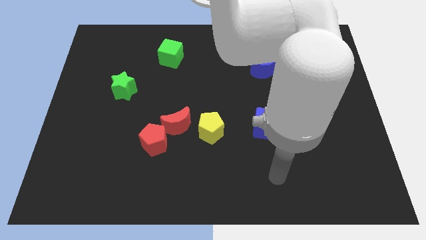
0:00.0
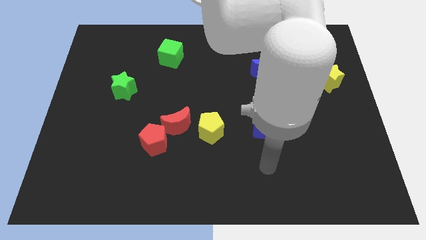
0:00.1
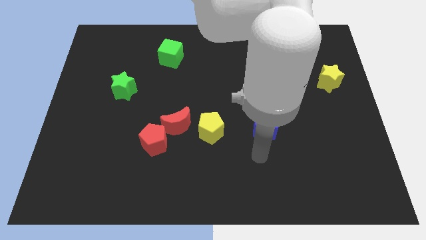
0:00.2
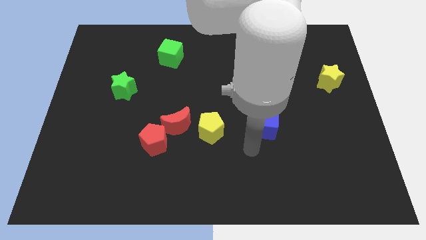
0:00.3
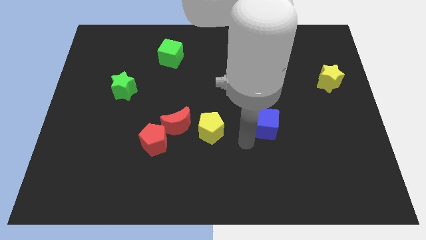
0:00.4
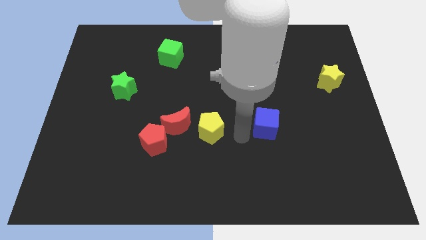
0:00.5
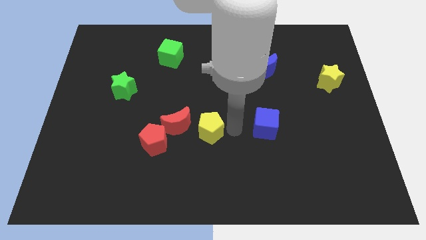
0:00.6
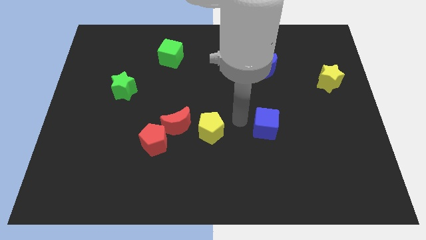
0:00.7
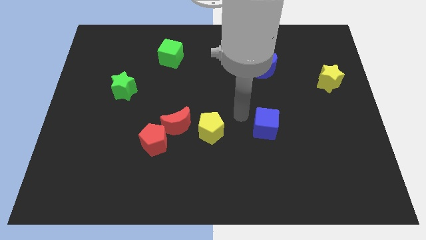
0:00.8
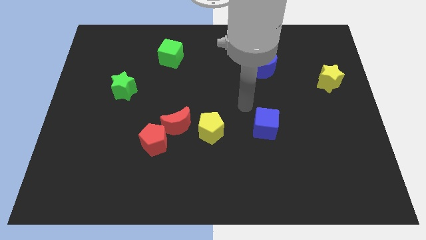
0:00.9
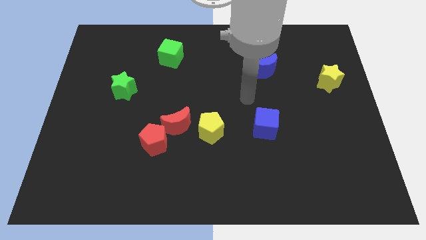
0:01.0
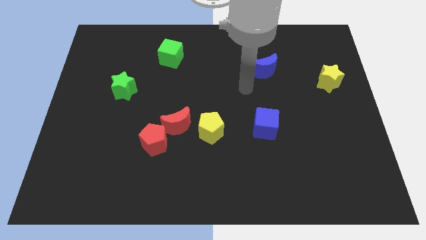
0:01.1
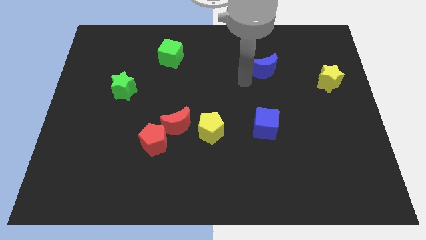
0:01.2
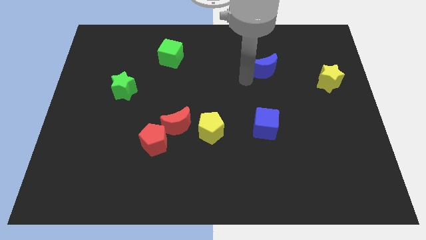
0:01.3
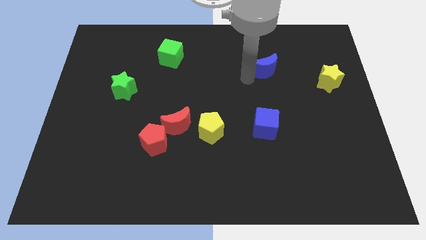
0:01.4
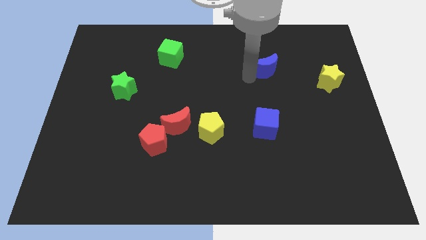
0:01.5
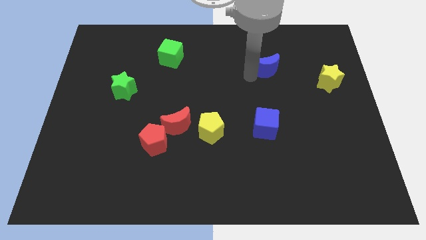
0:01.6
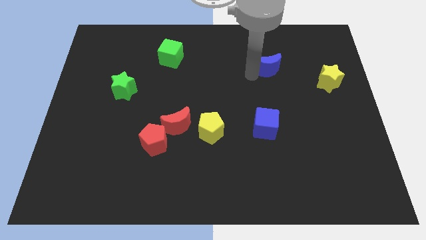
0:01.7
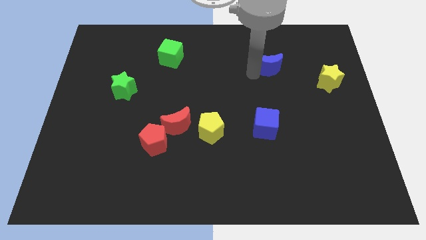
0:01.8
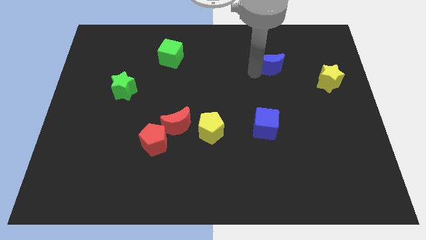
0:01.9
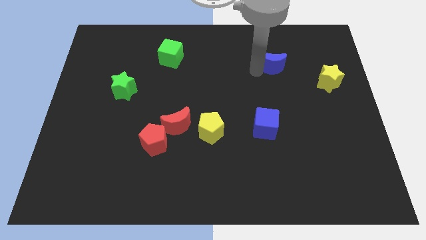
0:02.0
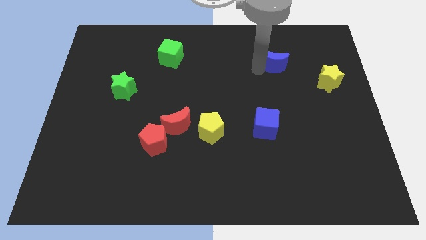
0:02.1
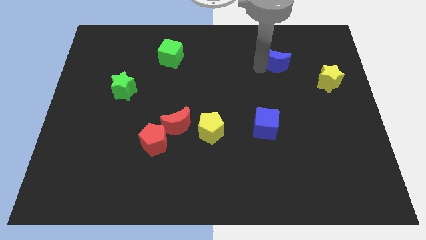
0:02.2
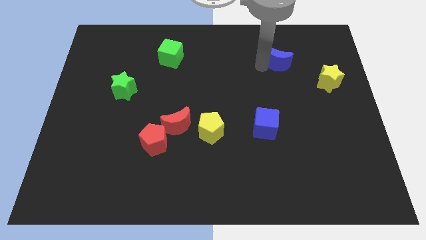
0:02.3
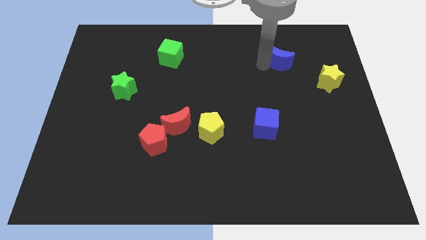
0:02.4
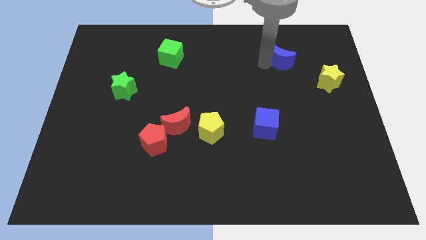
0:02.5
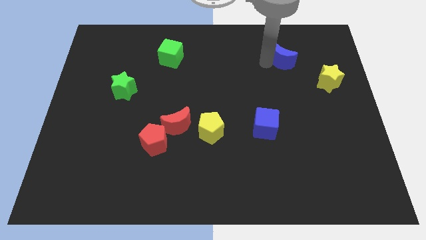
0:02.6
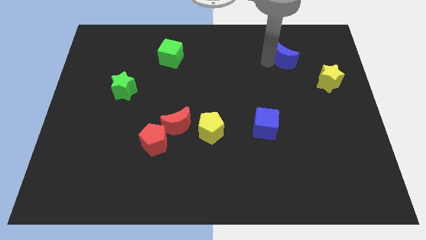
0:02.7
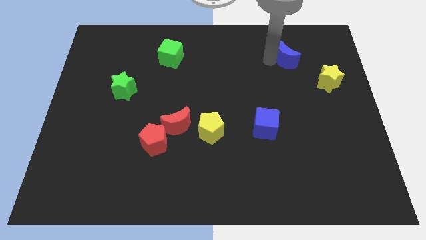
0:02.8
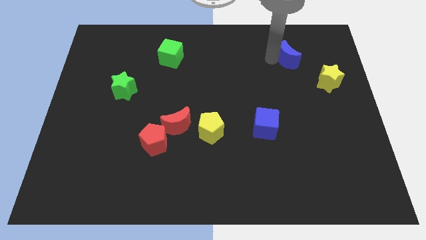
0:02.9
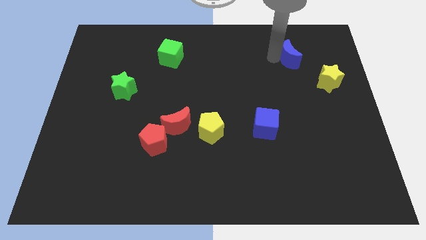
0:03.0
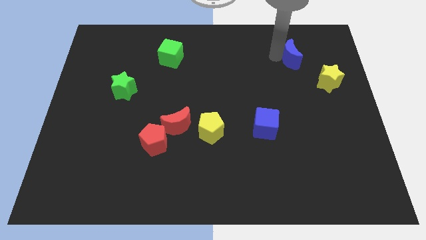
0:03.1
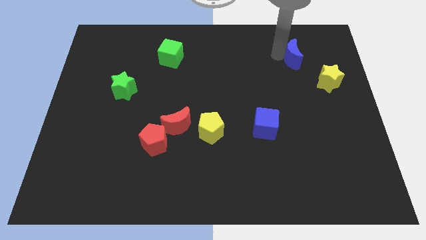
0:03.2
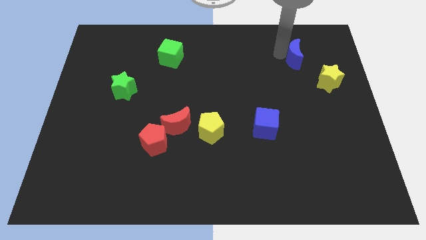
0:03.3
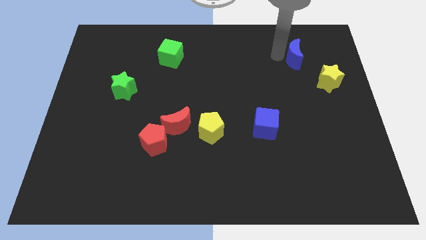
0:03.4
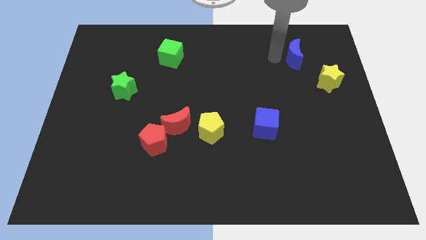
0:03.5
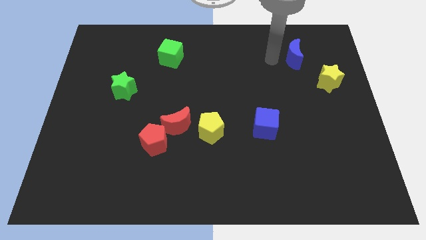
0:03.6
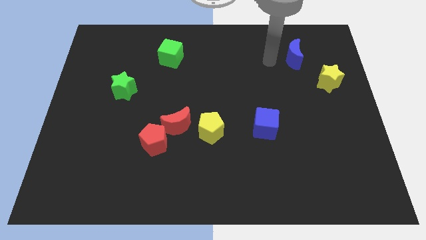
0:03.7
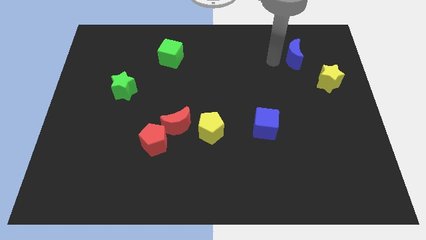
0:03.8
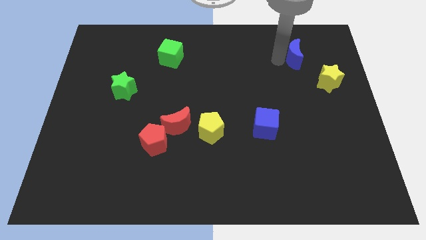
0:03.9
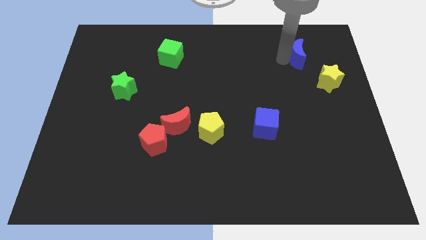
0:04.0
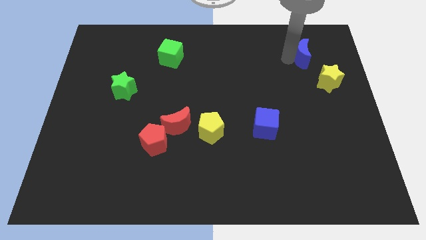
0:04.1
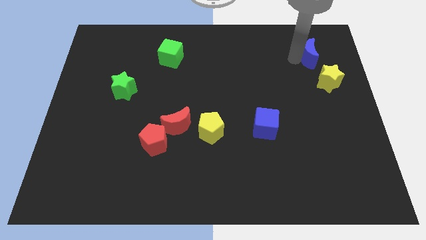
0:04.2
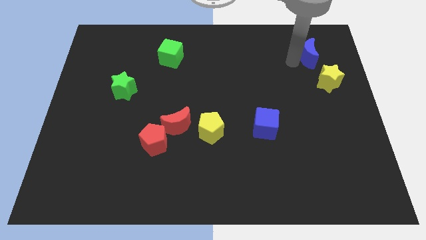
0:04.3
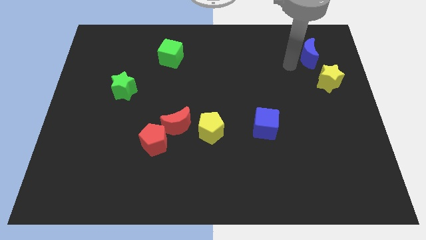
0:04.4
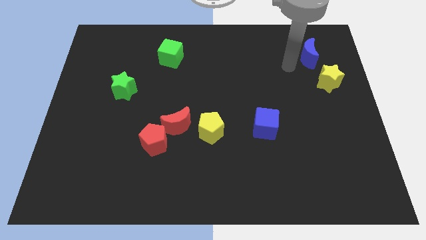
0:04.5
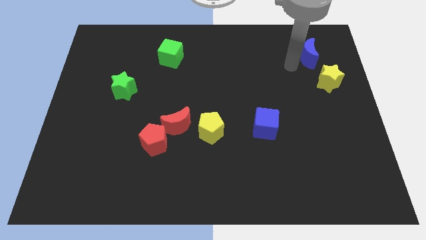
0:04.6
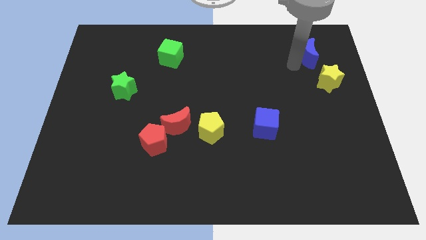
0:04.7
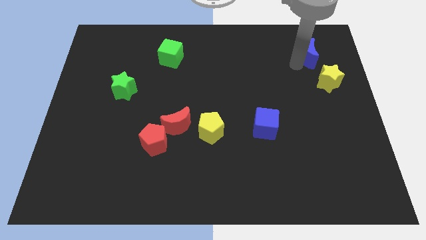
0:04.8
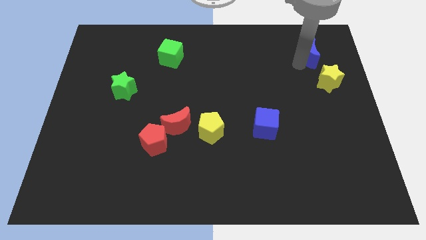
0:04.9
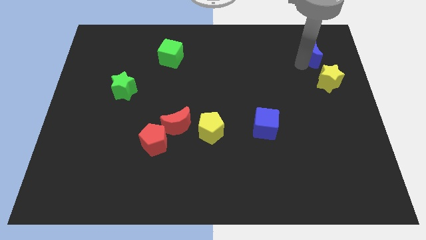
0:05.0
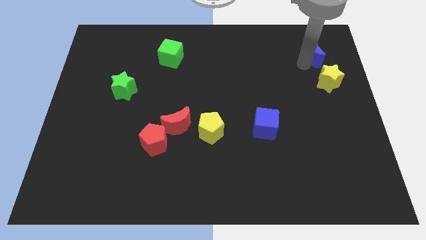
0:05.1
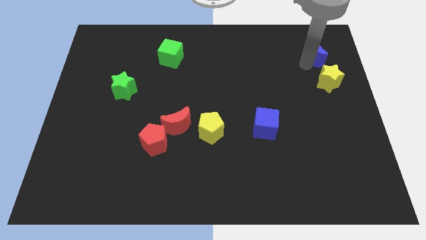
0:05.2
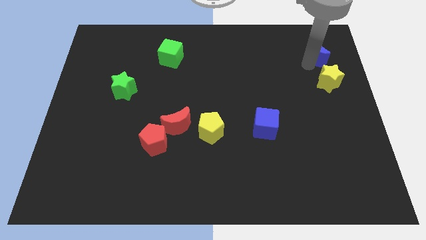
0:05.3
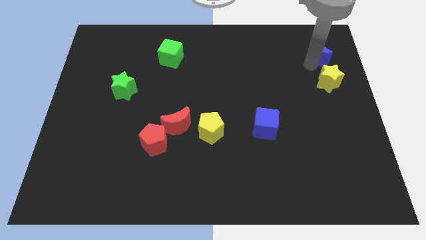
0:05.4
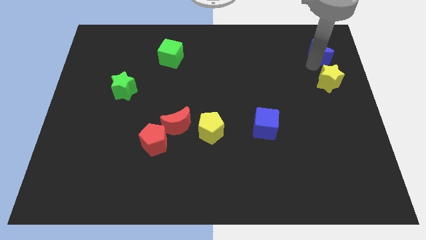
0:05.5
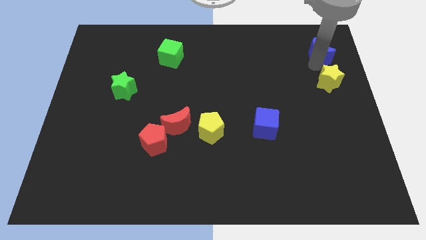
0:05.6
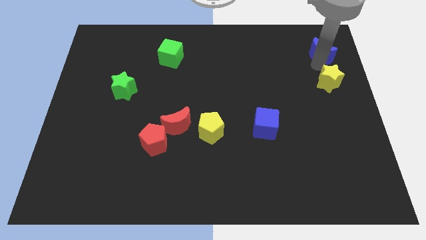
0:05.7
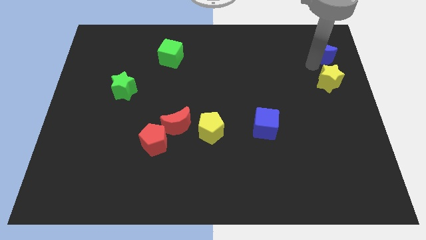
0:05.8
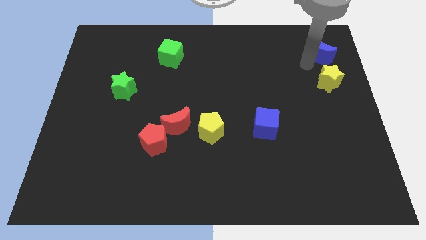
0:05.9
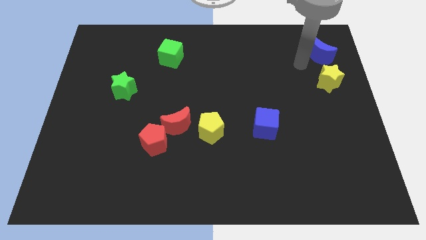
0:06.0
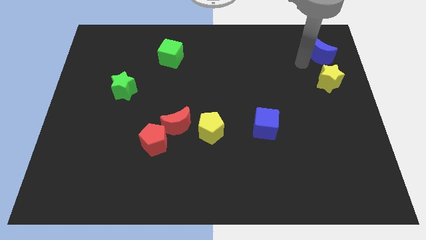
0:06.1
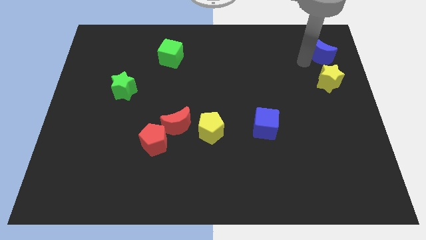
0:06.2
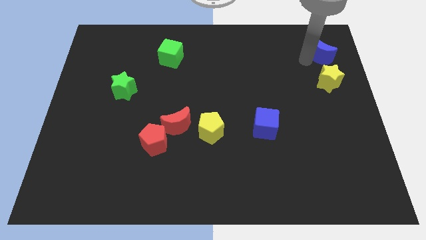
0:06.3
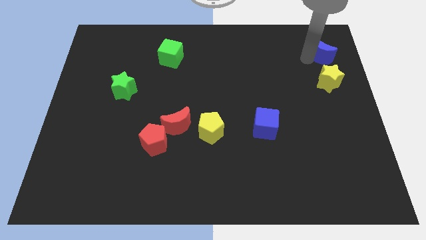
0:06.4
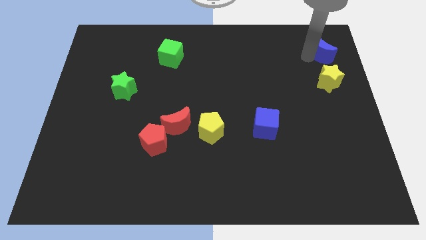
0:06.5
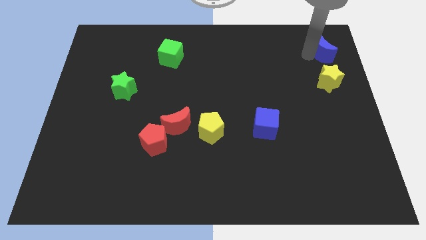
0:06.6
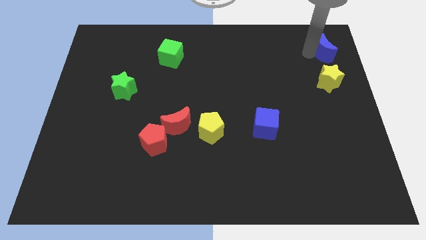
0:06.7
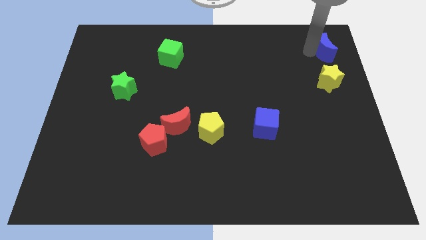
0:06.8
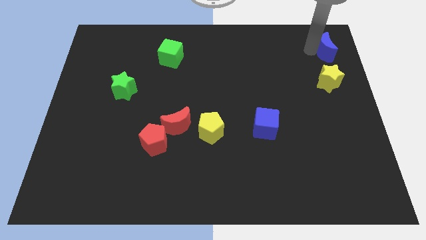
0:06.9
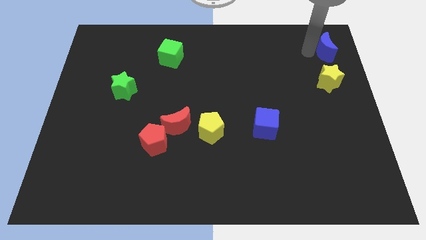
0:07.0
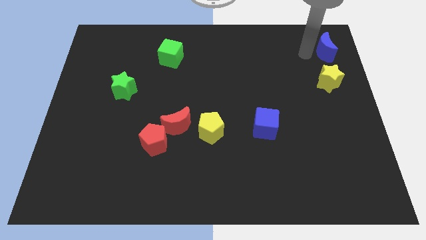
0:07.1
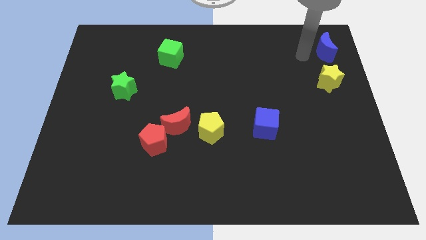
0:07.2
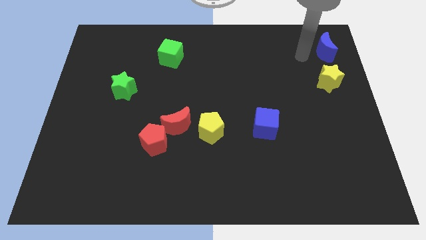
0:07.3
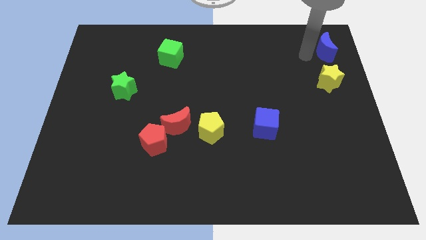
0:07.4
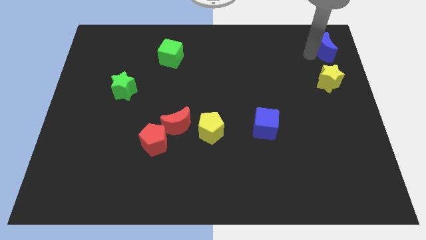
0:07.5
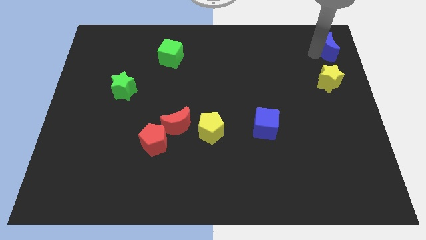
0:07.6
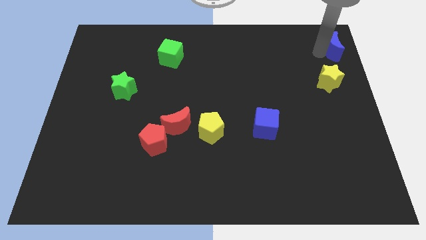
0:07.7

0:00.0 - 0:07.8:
push the blue moon to the top right corner
